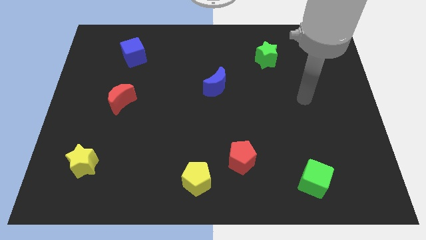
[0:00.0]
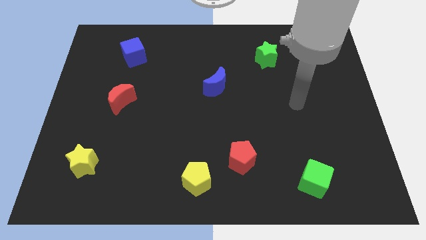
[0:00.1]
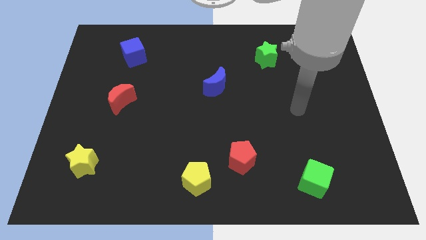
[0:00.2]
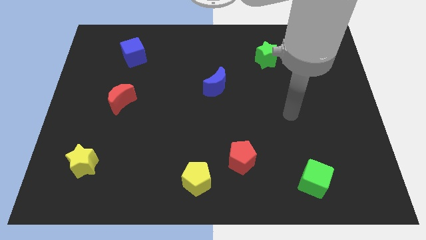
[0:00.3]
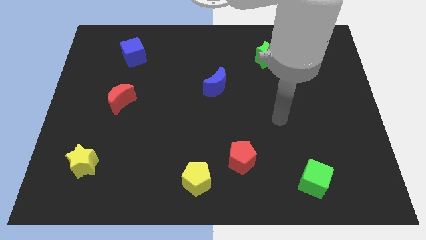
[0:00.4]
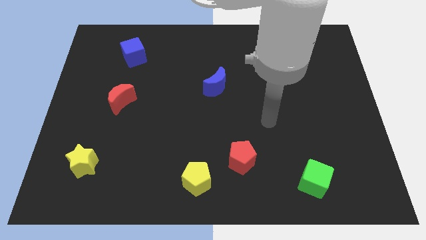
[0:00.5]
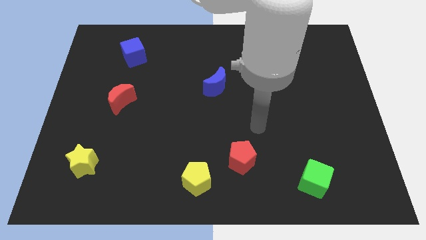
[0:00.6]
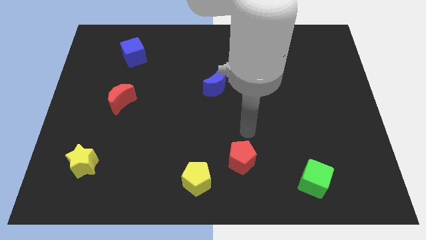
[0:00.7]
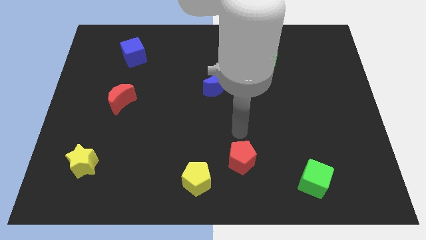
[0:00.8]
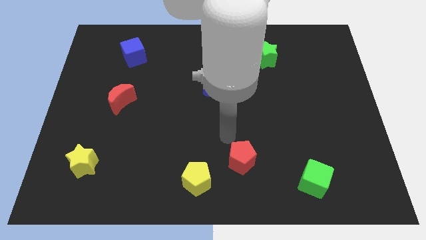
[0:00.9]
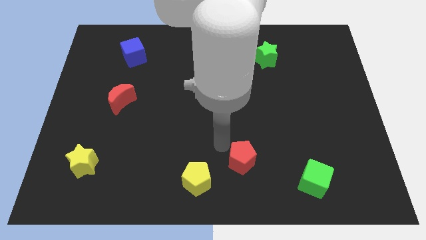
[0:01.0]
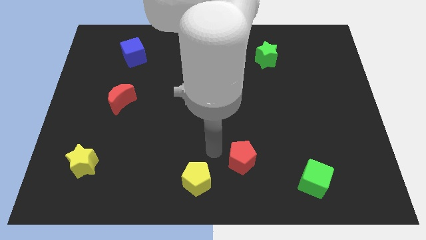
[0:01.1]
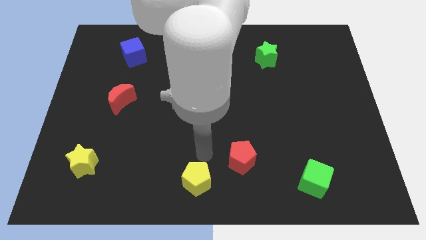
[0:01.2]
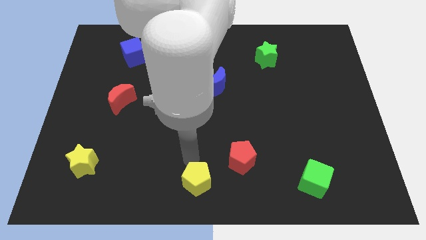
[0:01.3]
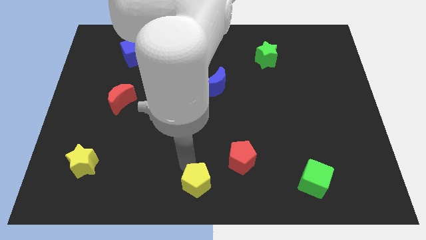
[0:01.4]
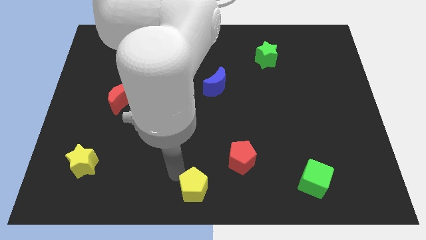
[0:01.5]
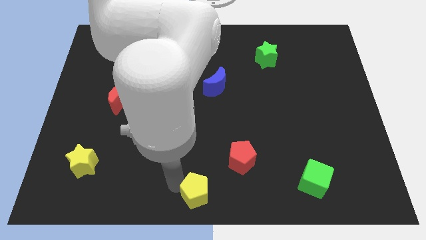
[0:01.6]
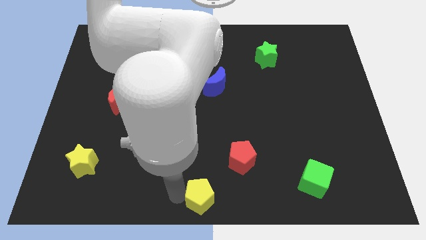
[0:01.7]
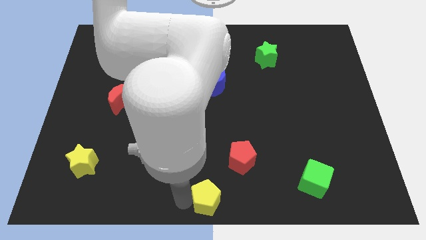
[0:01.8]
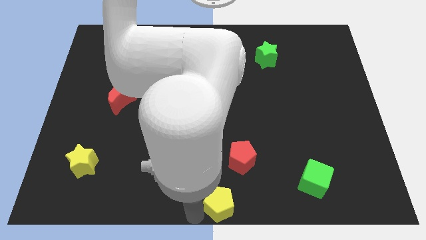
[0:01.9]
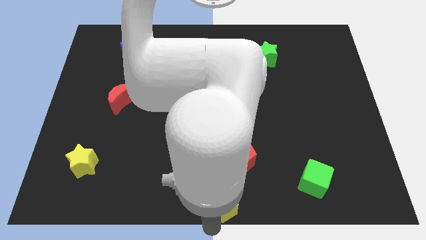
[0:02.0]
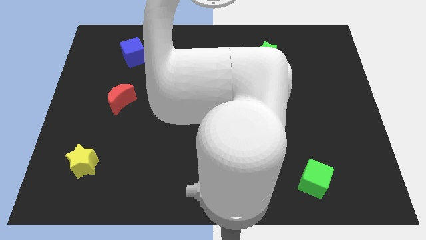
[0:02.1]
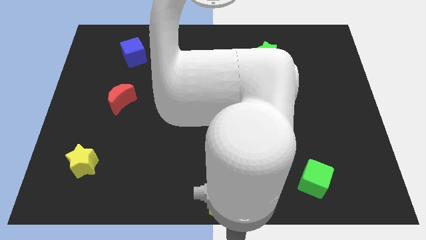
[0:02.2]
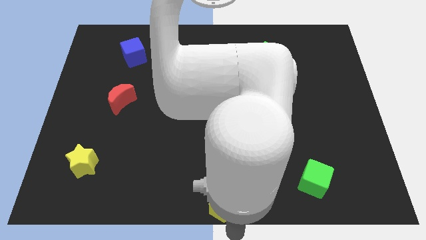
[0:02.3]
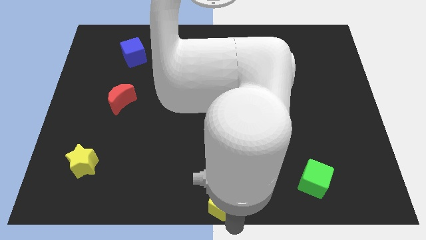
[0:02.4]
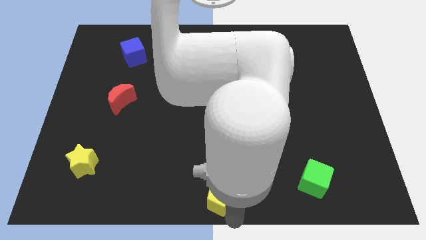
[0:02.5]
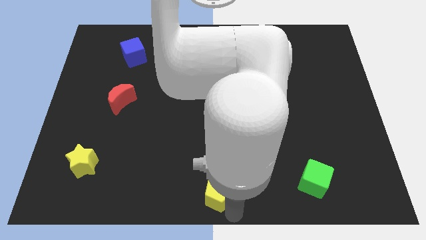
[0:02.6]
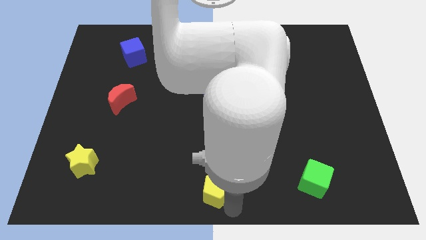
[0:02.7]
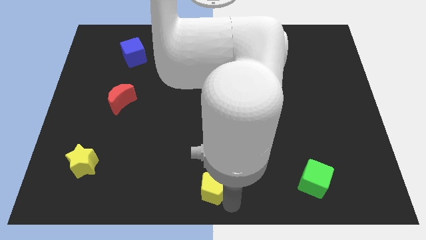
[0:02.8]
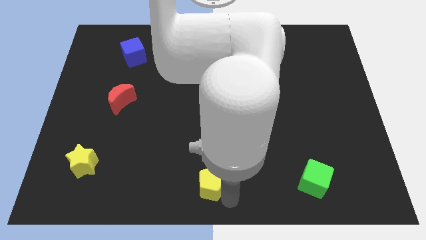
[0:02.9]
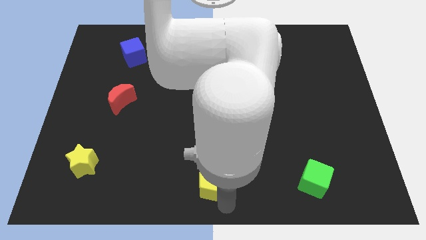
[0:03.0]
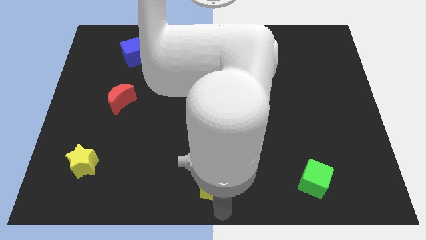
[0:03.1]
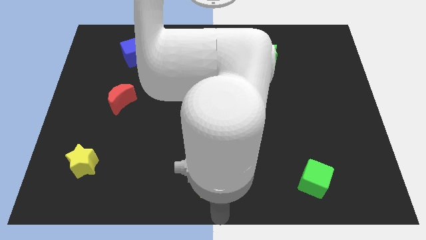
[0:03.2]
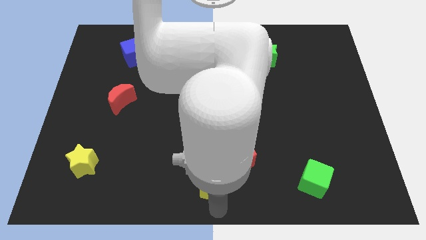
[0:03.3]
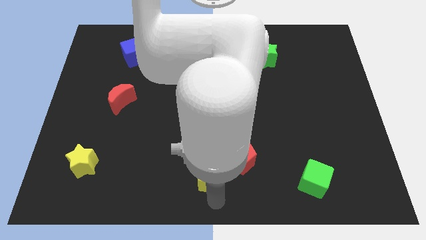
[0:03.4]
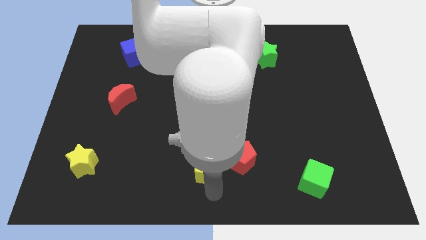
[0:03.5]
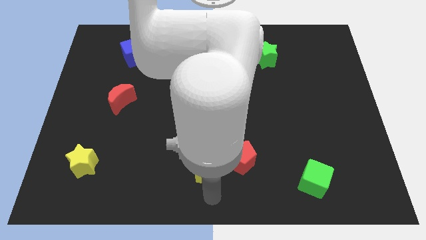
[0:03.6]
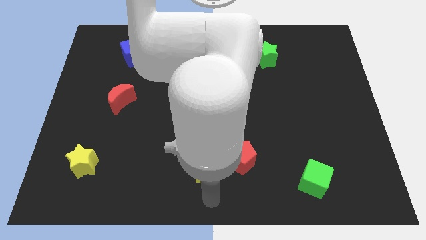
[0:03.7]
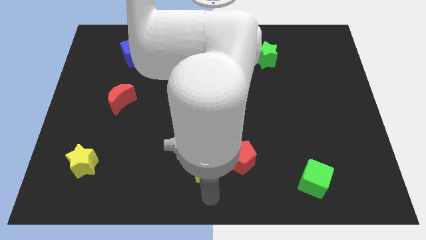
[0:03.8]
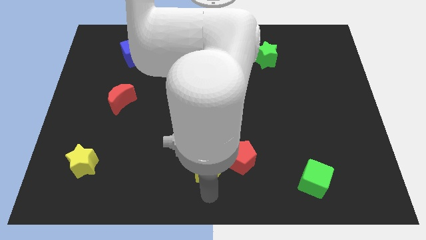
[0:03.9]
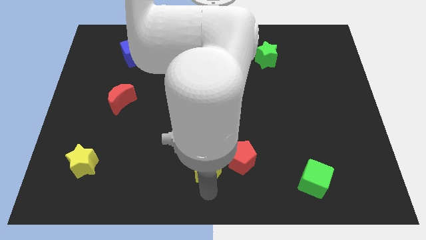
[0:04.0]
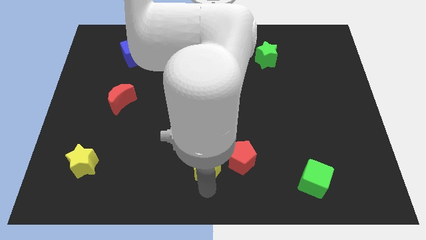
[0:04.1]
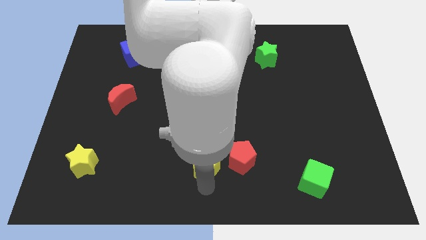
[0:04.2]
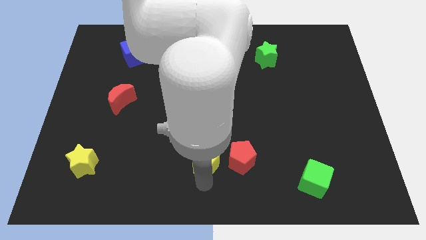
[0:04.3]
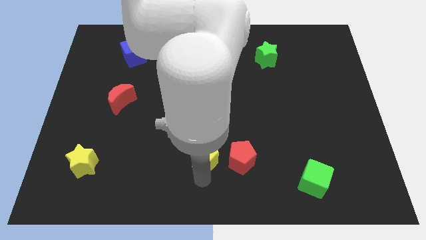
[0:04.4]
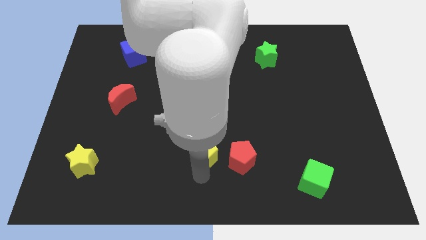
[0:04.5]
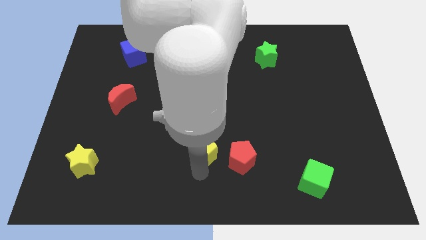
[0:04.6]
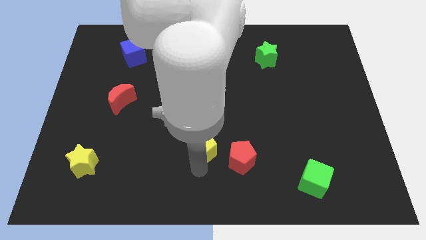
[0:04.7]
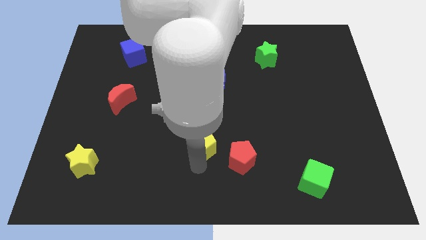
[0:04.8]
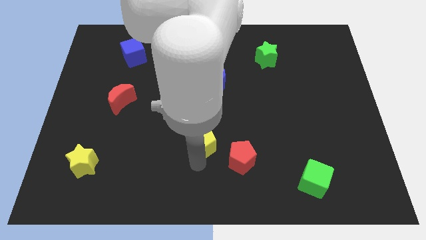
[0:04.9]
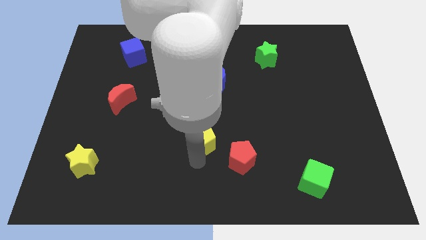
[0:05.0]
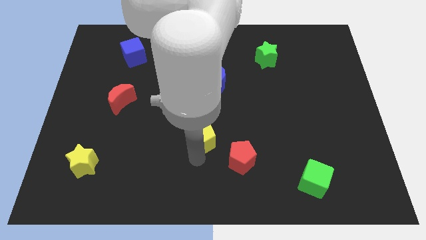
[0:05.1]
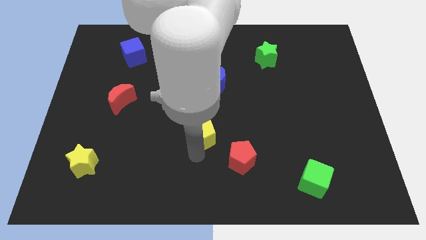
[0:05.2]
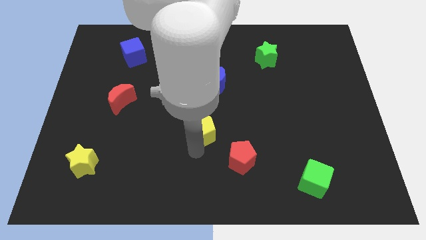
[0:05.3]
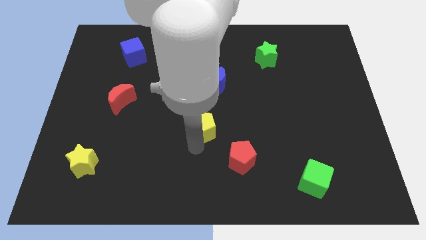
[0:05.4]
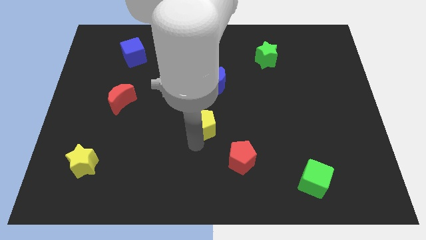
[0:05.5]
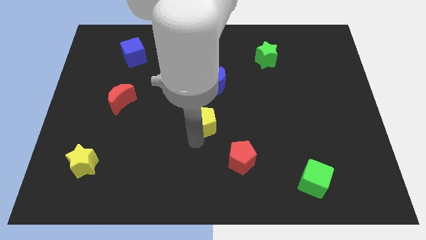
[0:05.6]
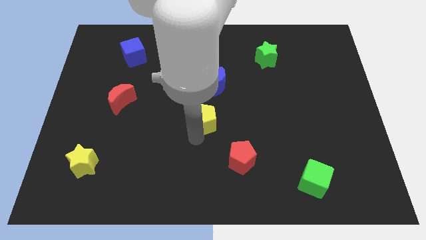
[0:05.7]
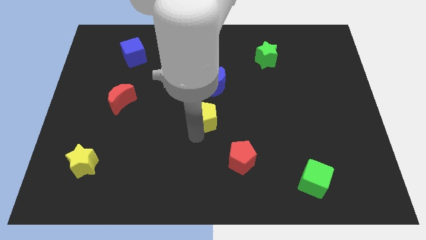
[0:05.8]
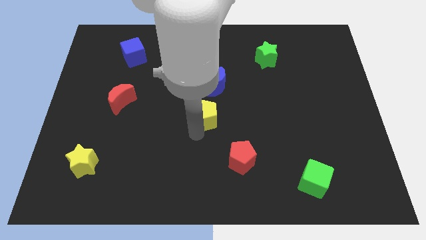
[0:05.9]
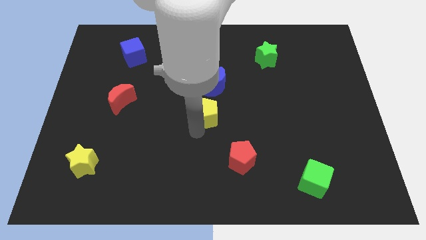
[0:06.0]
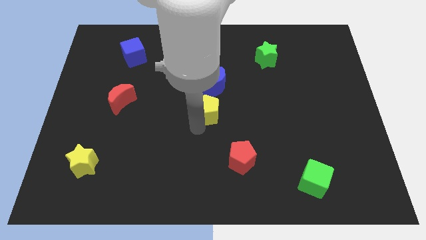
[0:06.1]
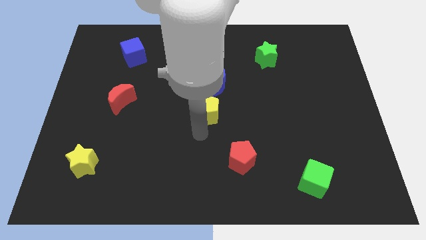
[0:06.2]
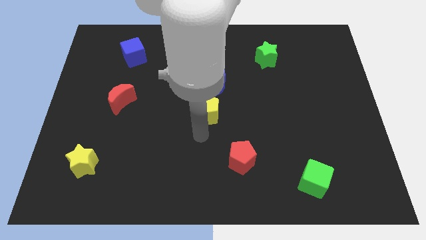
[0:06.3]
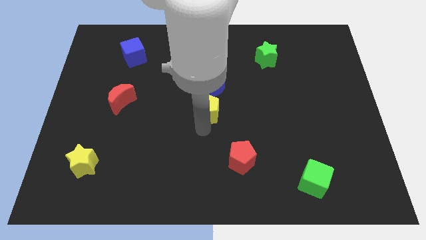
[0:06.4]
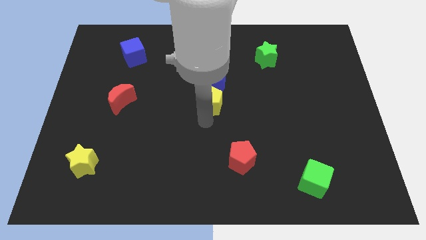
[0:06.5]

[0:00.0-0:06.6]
put the yellow pentagon to the blue moon
